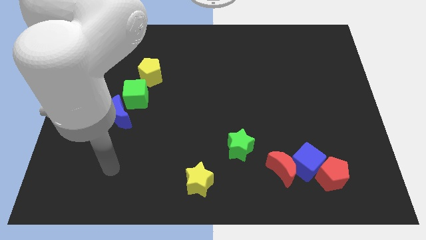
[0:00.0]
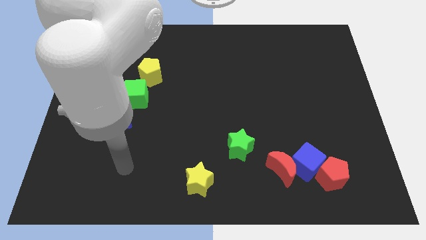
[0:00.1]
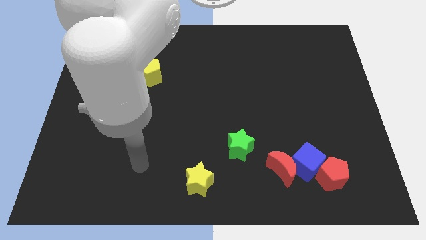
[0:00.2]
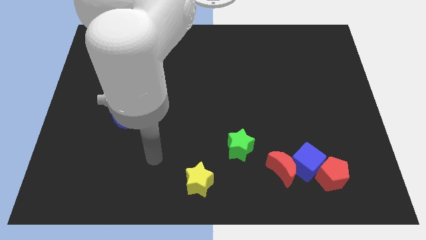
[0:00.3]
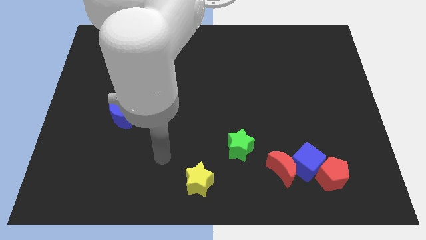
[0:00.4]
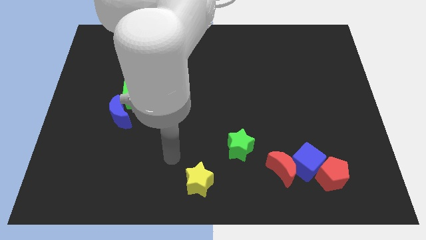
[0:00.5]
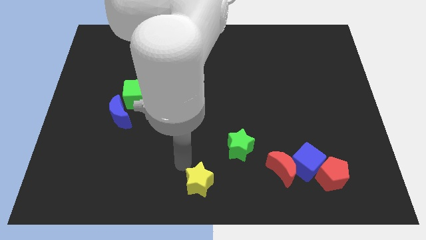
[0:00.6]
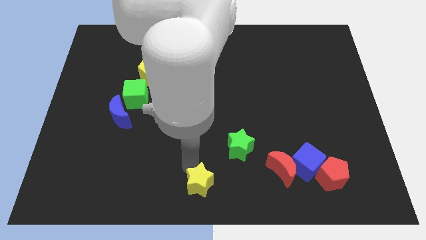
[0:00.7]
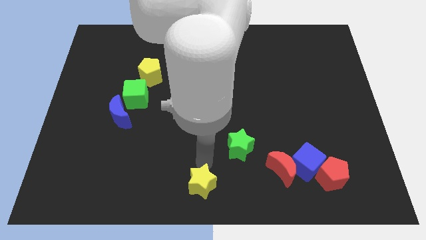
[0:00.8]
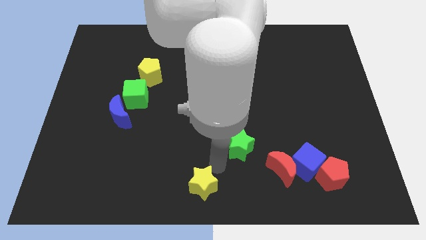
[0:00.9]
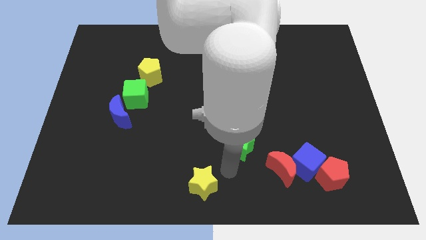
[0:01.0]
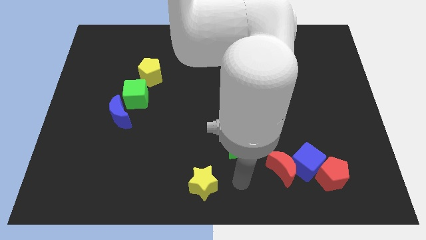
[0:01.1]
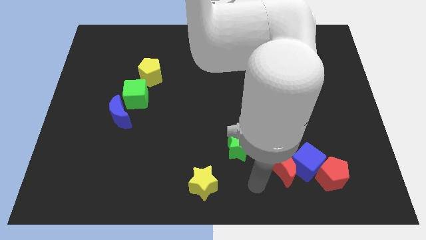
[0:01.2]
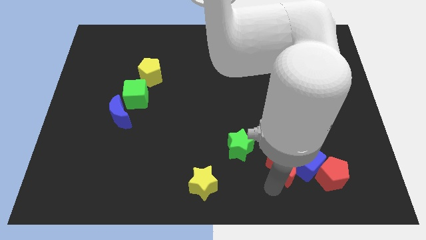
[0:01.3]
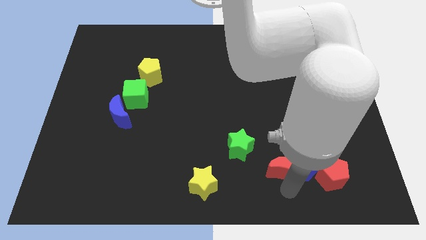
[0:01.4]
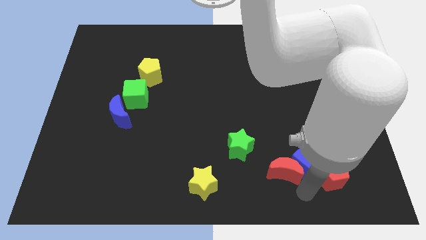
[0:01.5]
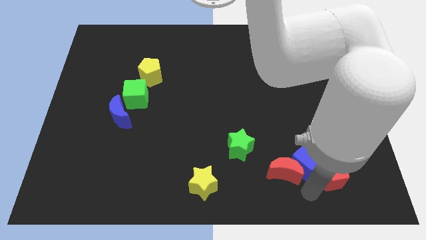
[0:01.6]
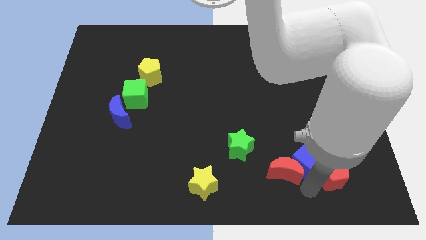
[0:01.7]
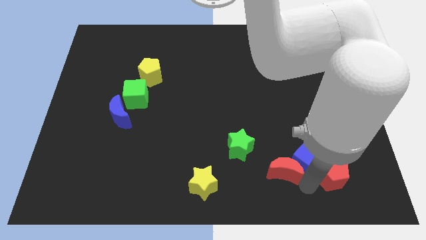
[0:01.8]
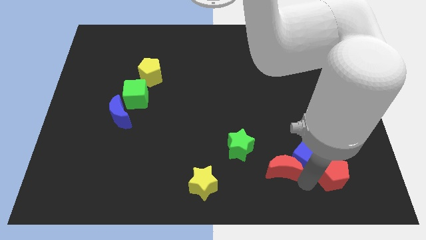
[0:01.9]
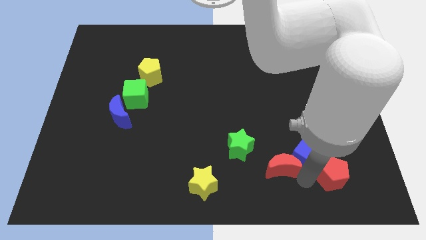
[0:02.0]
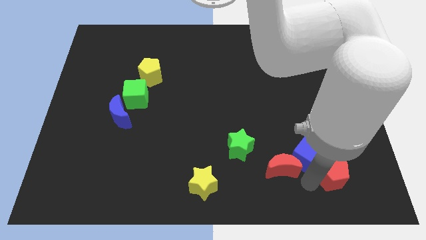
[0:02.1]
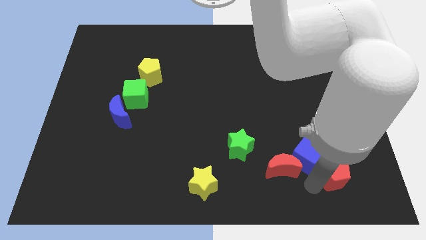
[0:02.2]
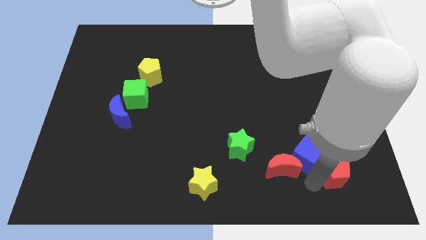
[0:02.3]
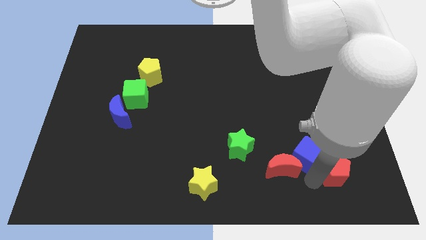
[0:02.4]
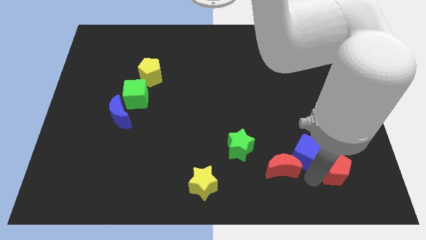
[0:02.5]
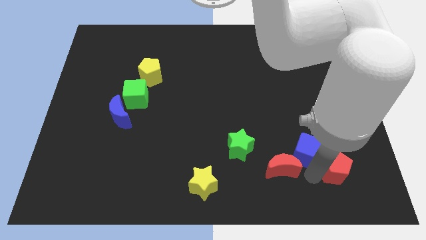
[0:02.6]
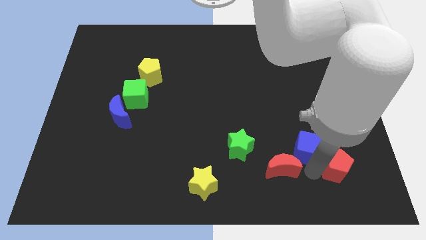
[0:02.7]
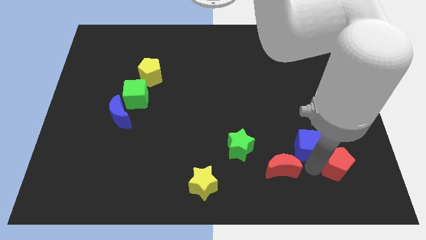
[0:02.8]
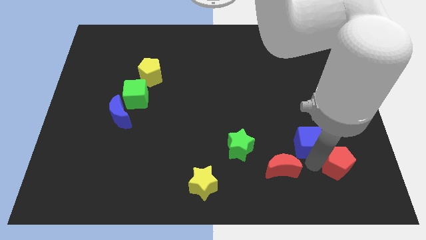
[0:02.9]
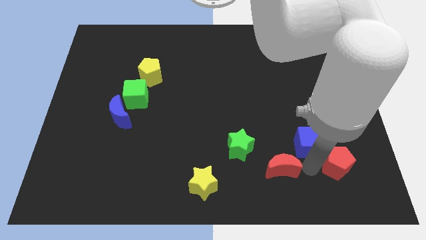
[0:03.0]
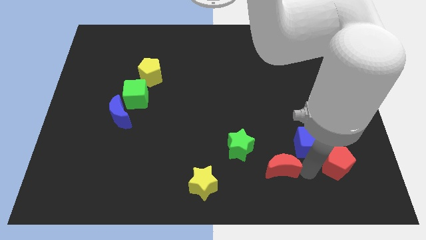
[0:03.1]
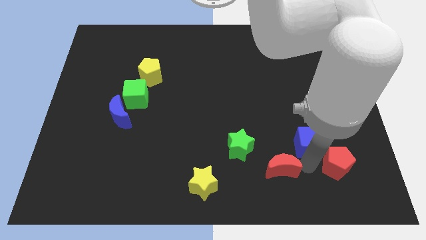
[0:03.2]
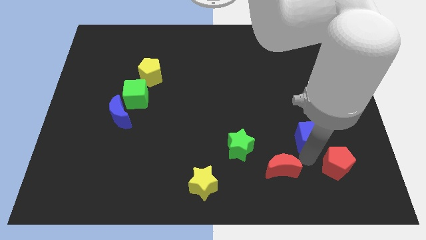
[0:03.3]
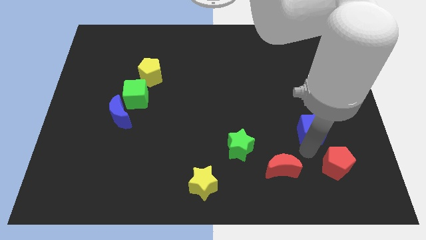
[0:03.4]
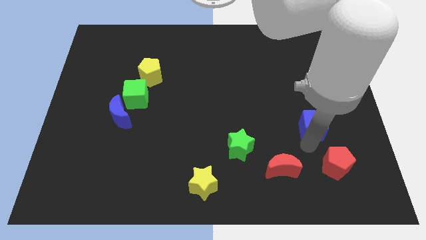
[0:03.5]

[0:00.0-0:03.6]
pull the blue cube apart from the red moon and red pentagon

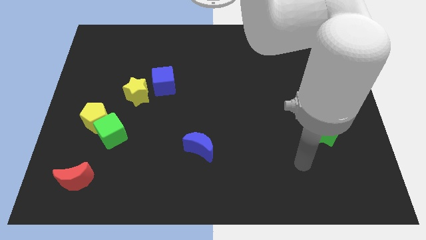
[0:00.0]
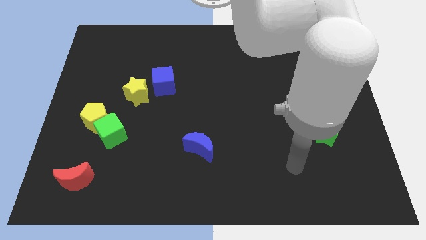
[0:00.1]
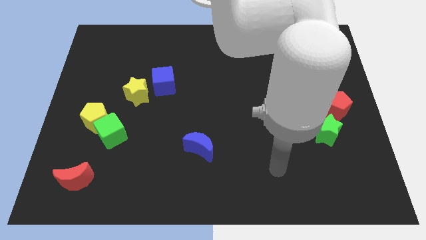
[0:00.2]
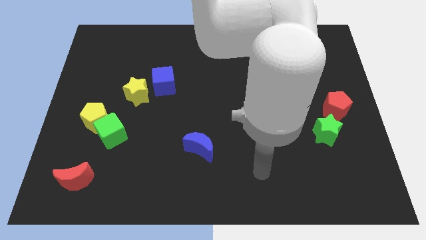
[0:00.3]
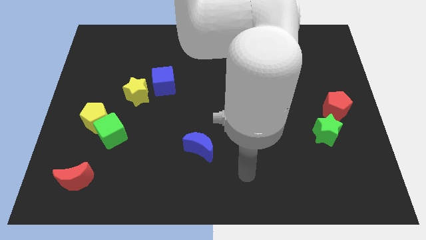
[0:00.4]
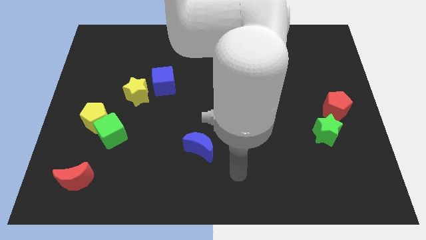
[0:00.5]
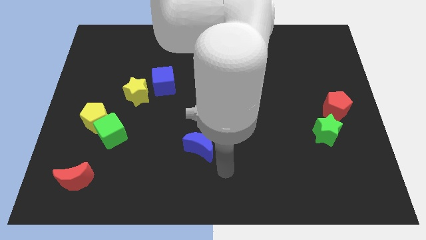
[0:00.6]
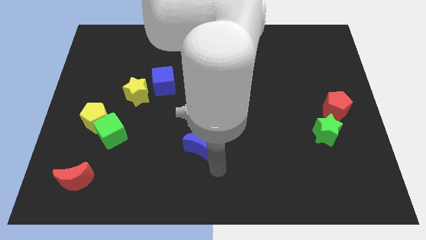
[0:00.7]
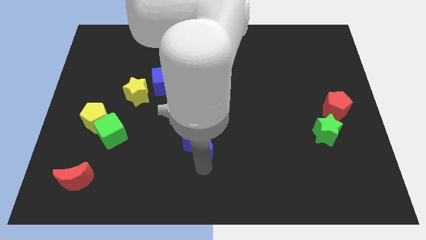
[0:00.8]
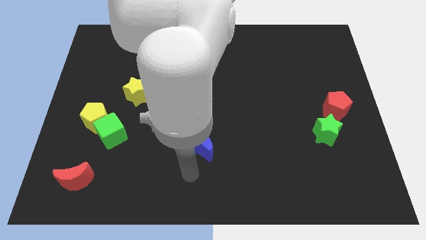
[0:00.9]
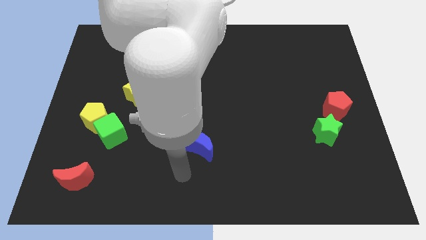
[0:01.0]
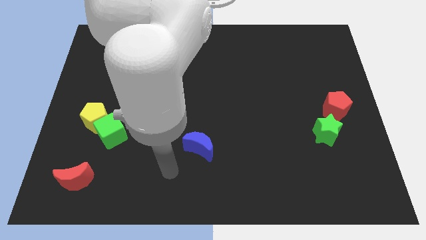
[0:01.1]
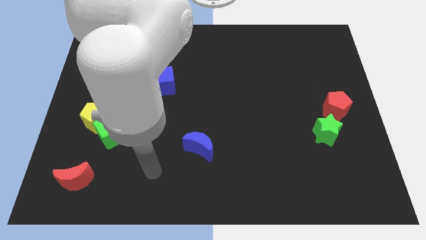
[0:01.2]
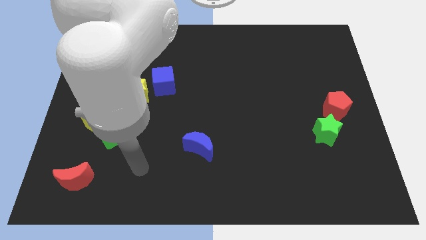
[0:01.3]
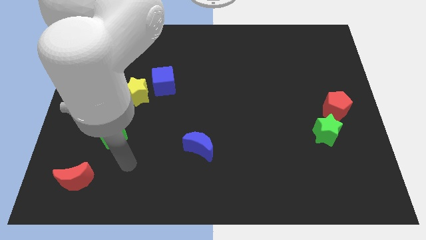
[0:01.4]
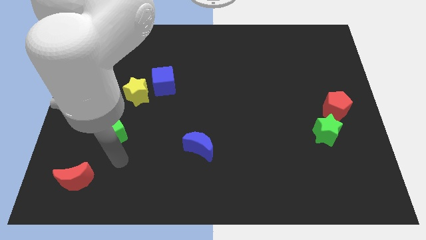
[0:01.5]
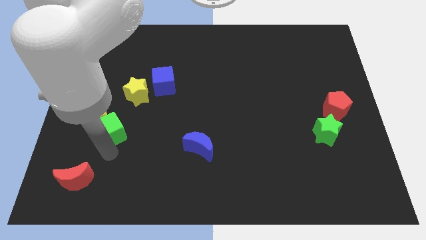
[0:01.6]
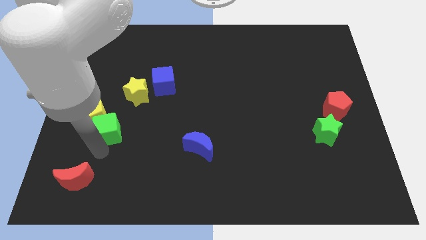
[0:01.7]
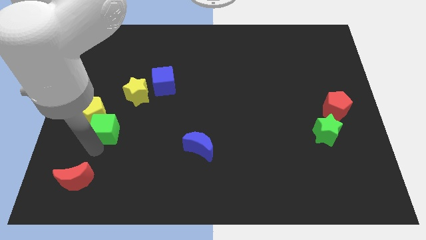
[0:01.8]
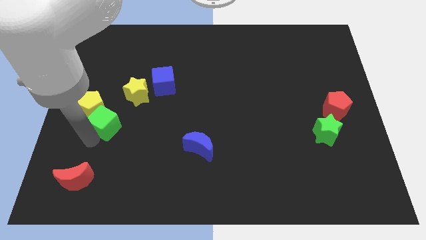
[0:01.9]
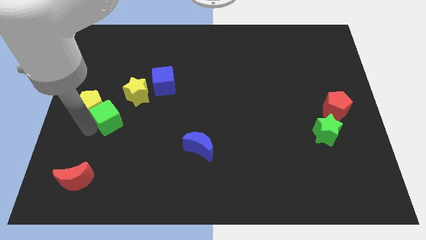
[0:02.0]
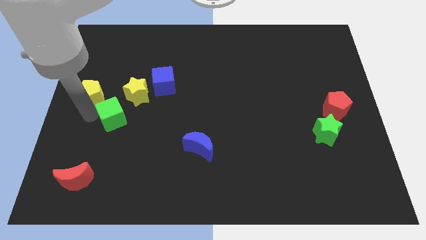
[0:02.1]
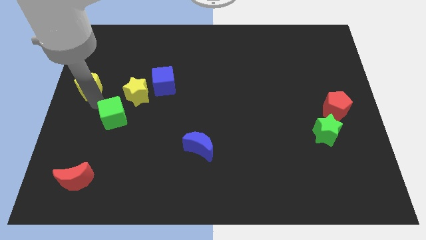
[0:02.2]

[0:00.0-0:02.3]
move the green cube away from the yellow pentagon

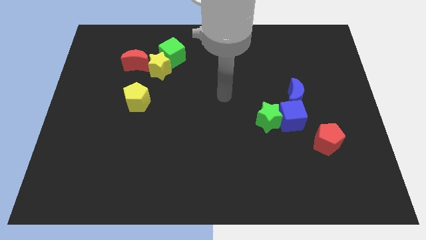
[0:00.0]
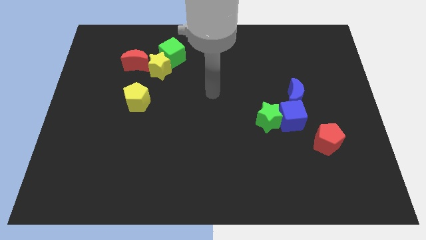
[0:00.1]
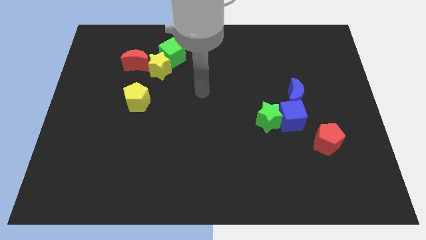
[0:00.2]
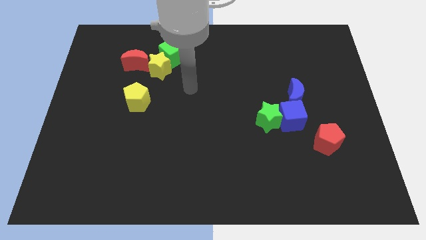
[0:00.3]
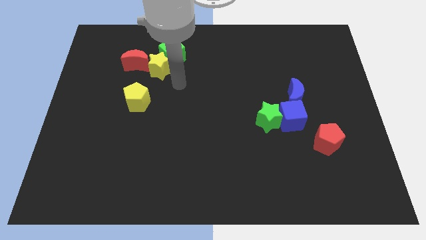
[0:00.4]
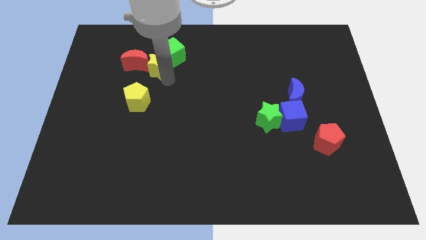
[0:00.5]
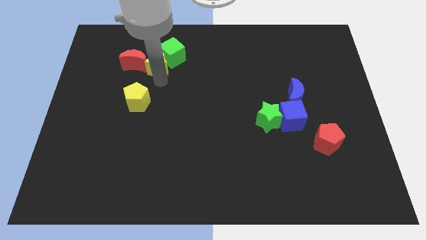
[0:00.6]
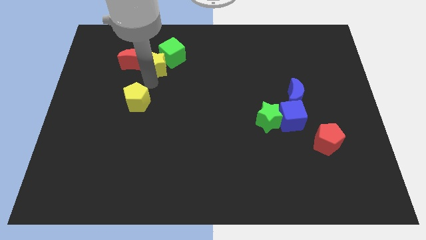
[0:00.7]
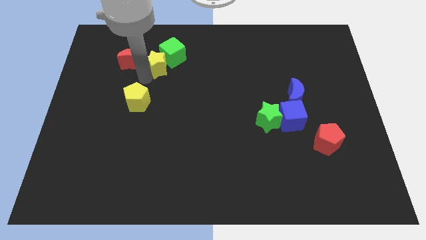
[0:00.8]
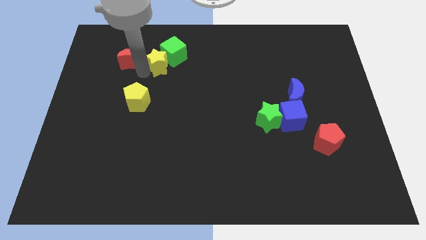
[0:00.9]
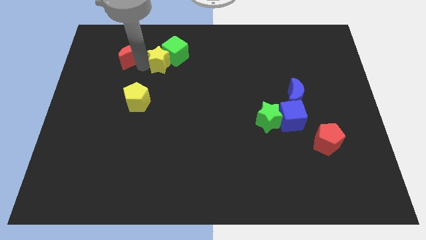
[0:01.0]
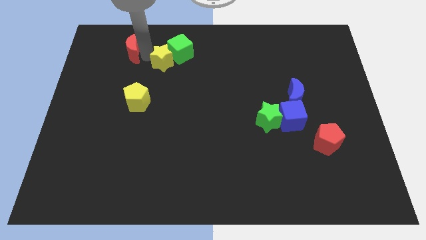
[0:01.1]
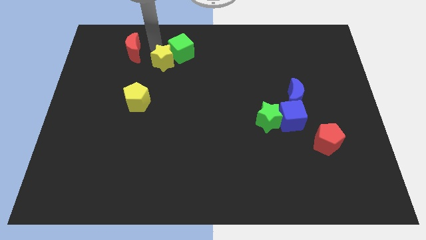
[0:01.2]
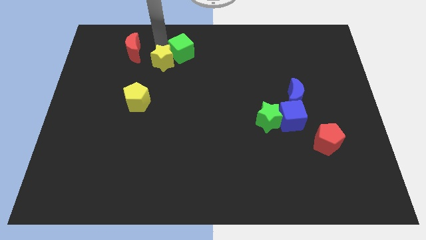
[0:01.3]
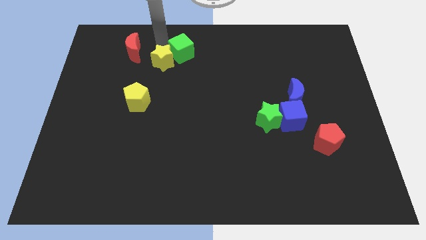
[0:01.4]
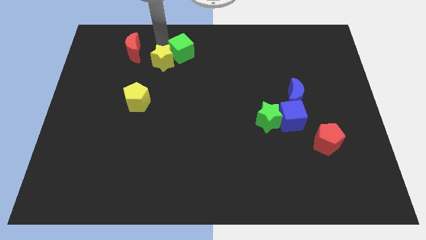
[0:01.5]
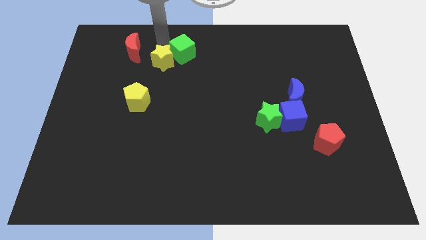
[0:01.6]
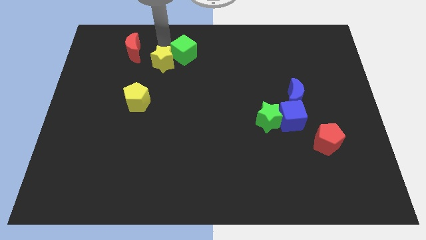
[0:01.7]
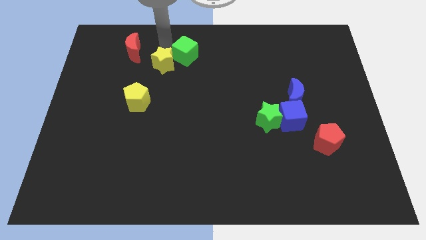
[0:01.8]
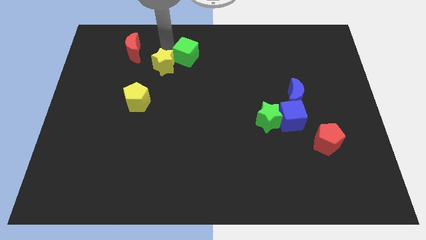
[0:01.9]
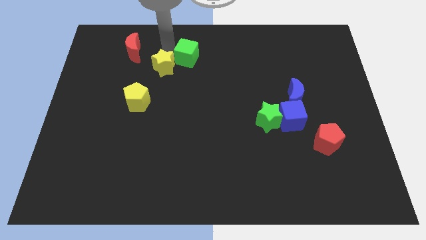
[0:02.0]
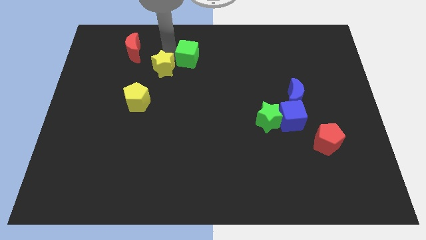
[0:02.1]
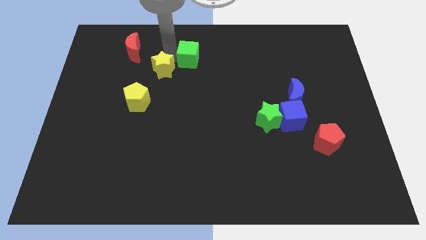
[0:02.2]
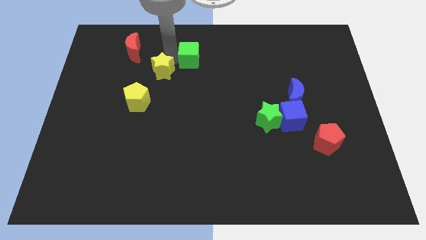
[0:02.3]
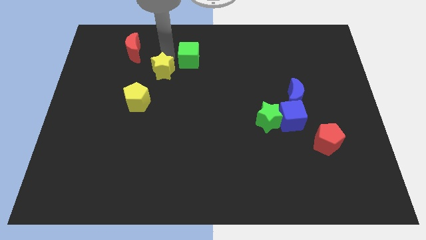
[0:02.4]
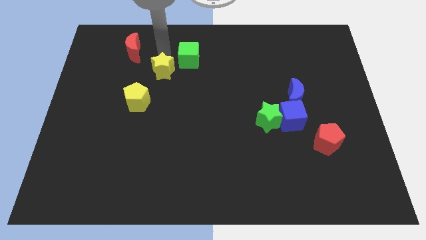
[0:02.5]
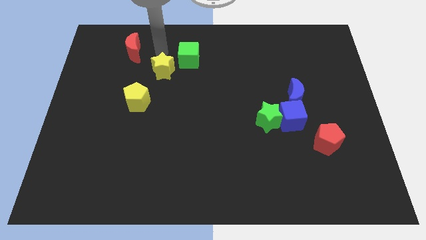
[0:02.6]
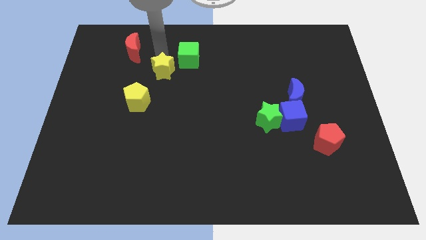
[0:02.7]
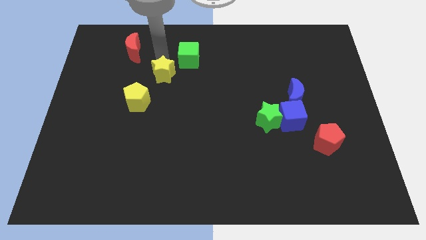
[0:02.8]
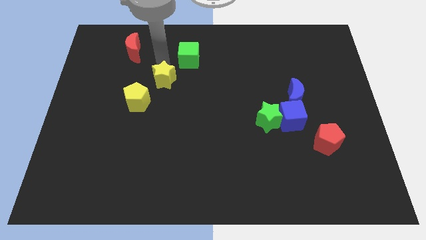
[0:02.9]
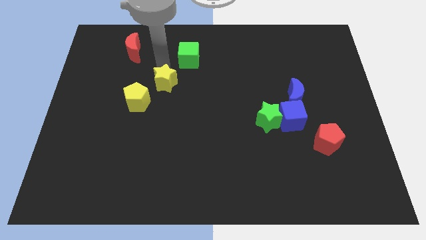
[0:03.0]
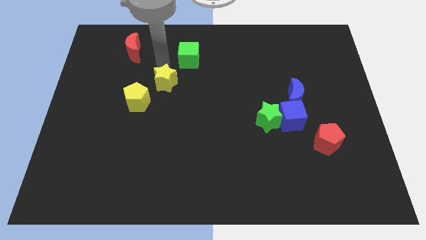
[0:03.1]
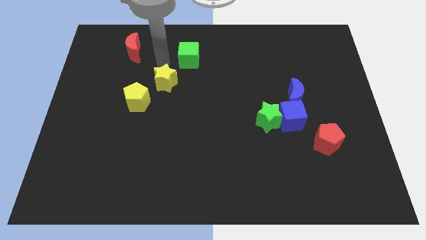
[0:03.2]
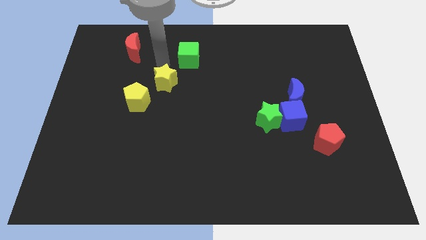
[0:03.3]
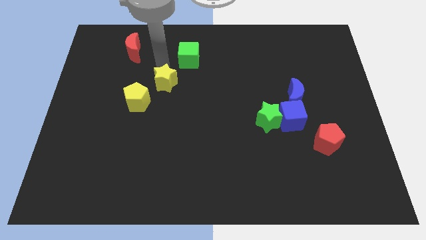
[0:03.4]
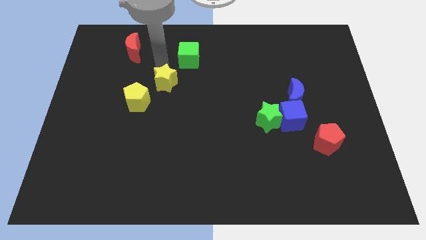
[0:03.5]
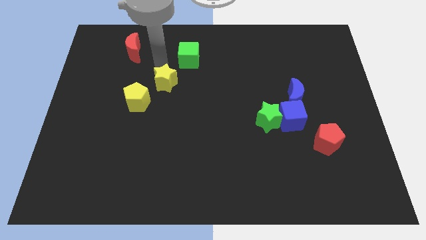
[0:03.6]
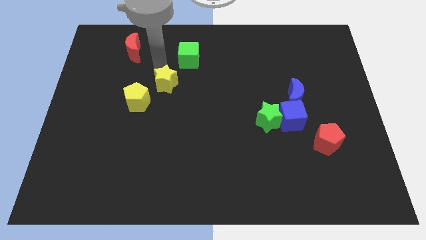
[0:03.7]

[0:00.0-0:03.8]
separate the yellow star from the green cube and red moon
